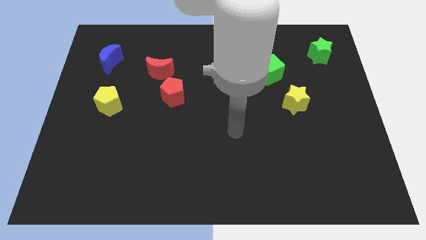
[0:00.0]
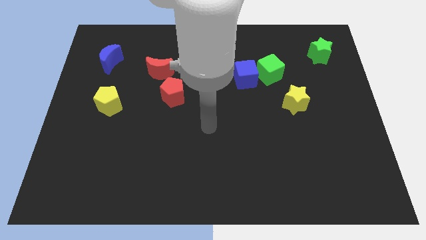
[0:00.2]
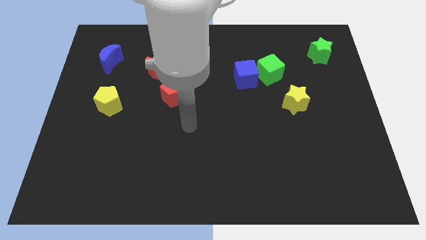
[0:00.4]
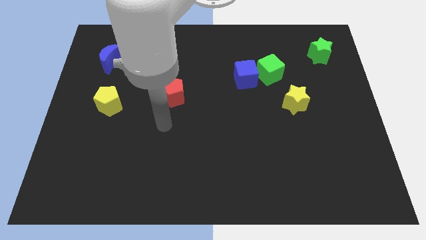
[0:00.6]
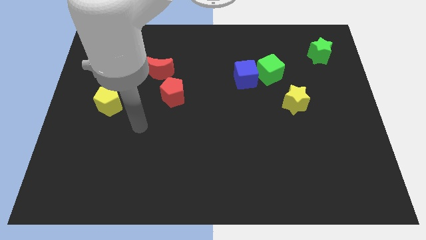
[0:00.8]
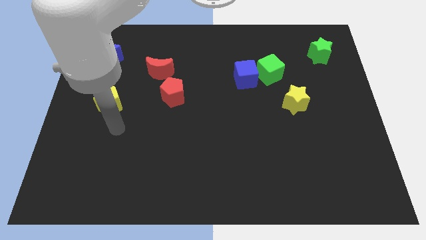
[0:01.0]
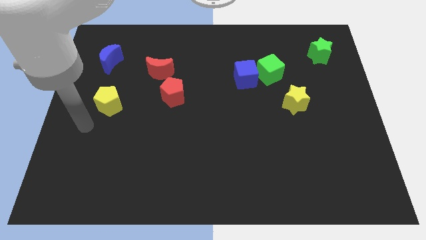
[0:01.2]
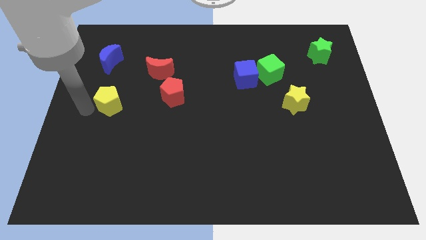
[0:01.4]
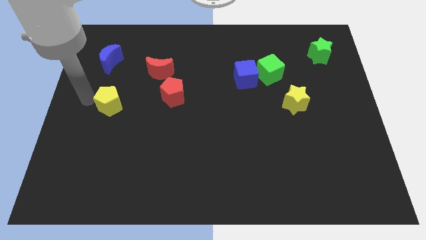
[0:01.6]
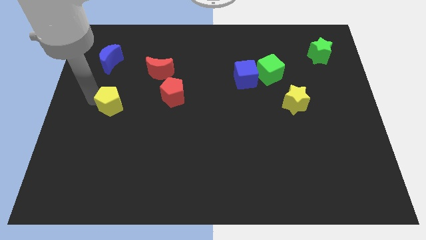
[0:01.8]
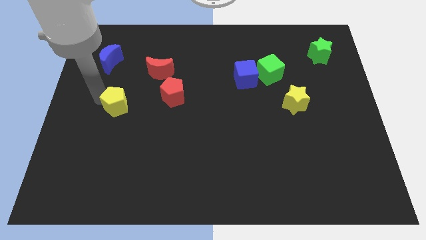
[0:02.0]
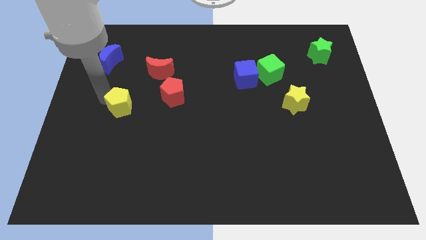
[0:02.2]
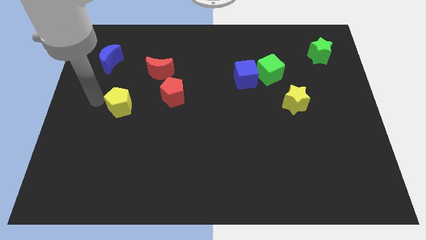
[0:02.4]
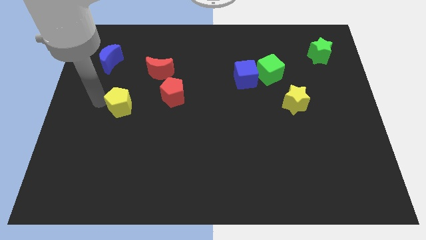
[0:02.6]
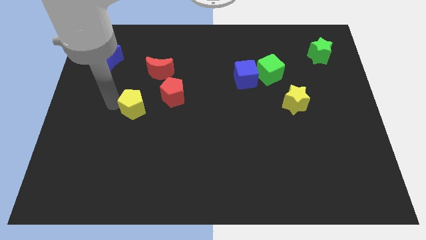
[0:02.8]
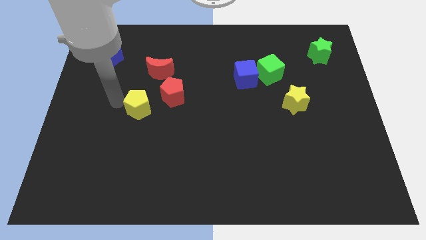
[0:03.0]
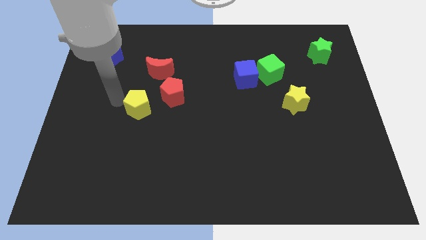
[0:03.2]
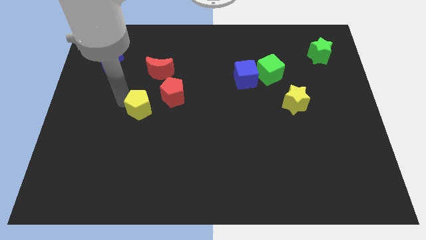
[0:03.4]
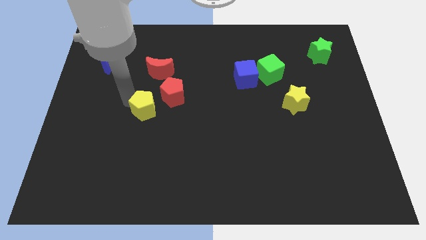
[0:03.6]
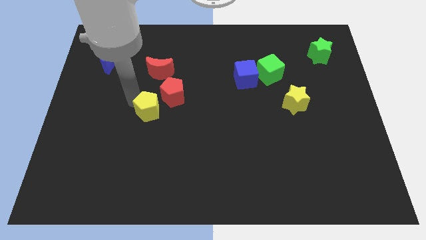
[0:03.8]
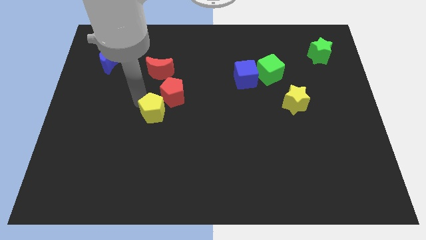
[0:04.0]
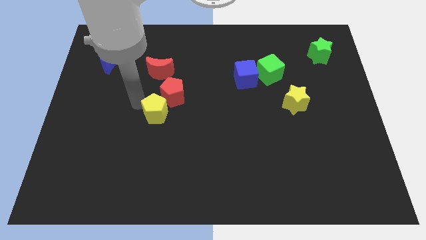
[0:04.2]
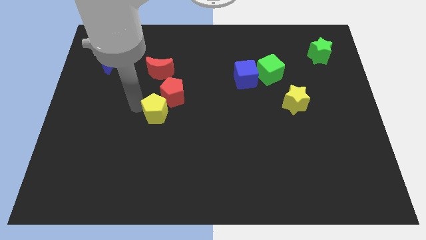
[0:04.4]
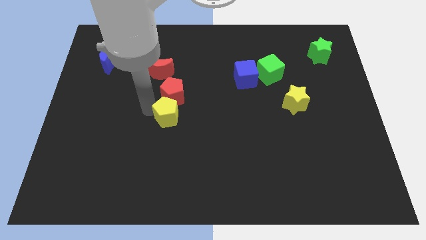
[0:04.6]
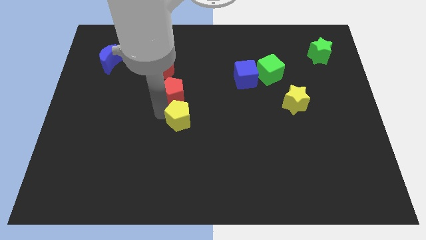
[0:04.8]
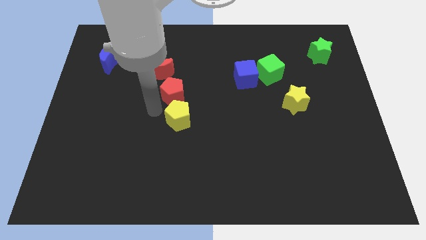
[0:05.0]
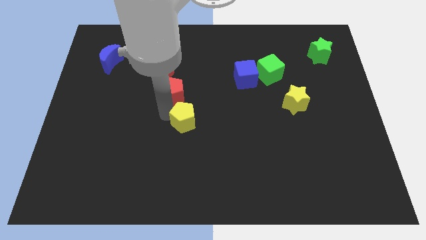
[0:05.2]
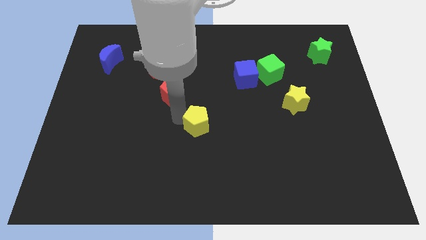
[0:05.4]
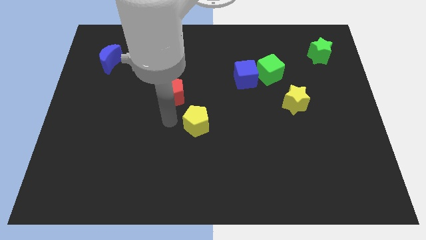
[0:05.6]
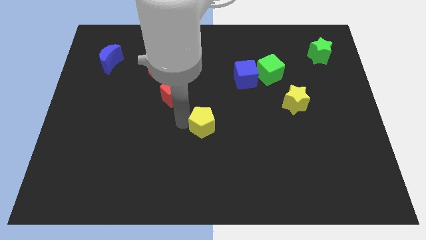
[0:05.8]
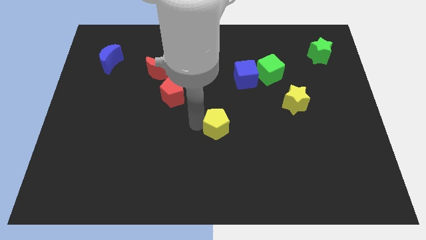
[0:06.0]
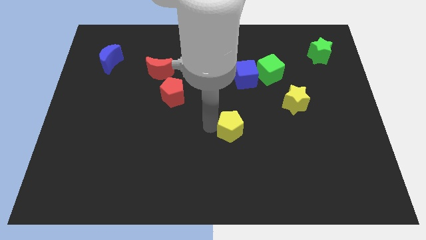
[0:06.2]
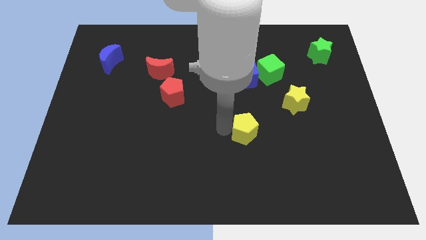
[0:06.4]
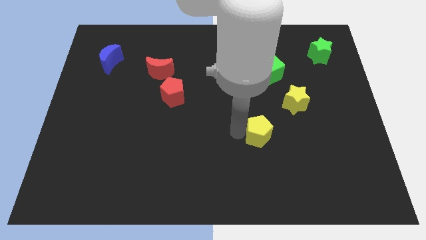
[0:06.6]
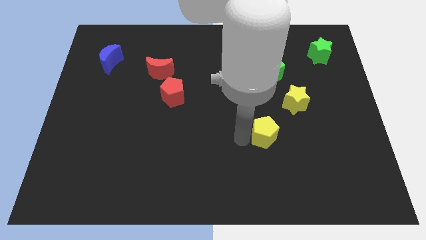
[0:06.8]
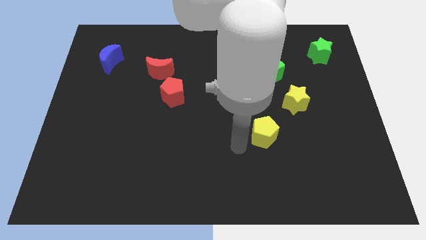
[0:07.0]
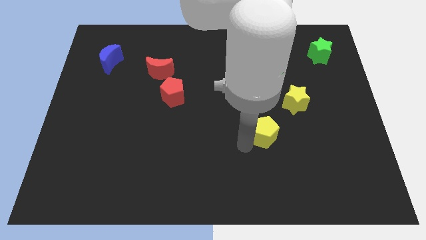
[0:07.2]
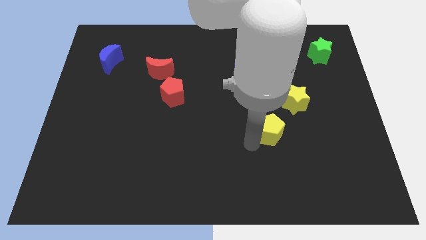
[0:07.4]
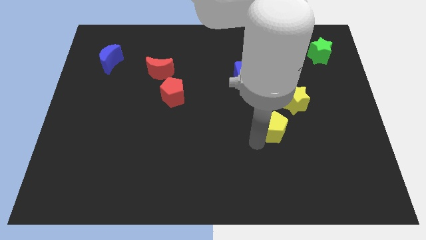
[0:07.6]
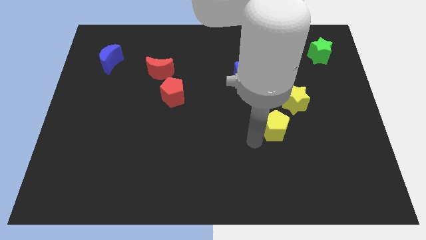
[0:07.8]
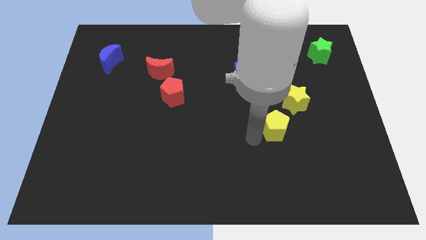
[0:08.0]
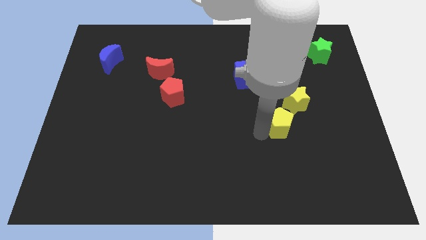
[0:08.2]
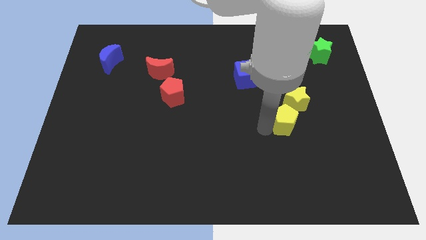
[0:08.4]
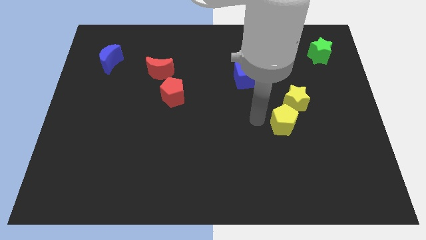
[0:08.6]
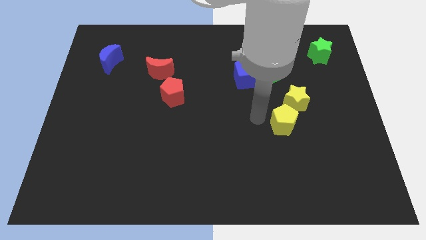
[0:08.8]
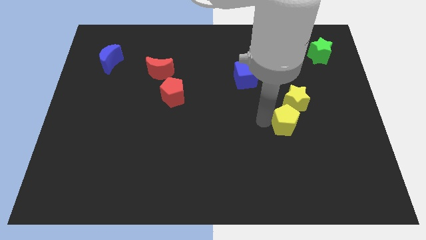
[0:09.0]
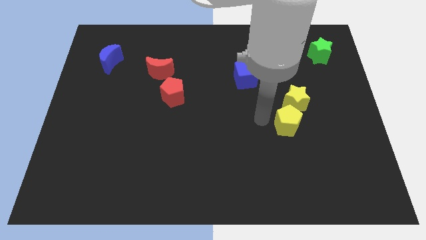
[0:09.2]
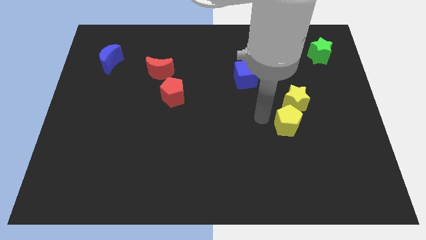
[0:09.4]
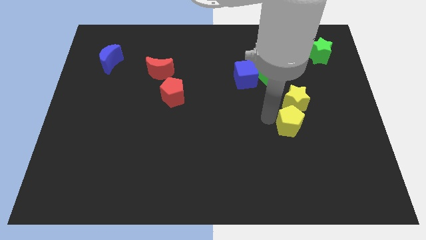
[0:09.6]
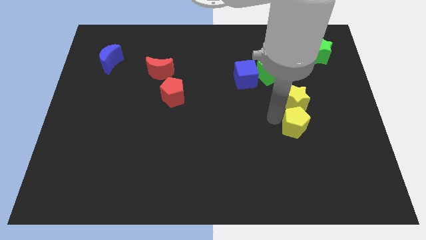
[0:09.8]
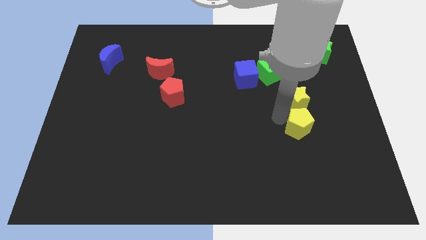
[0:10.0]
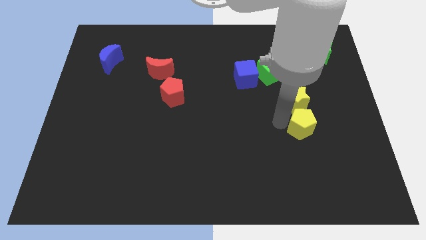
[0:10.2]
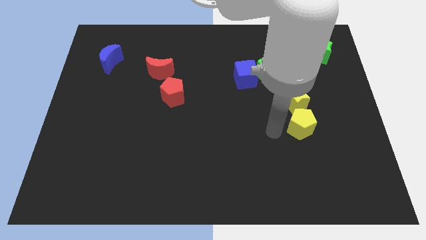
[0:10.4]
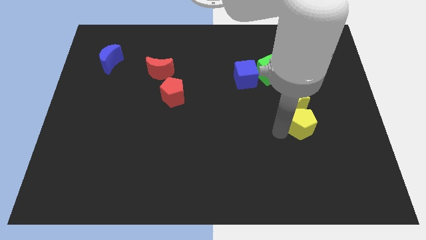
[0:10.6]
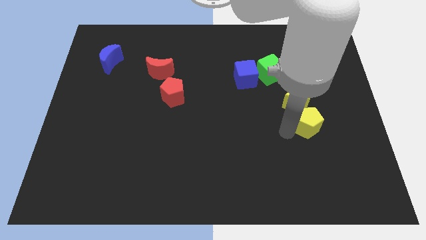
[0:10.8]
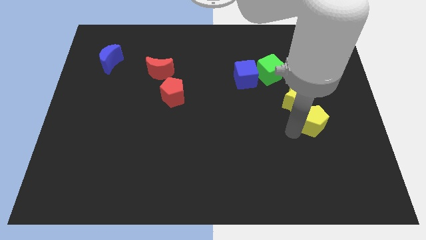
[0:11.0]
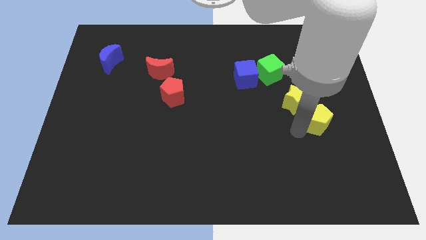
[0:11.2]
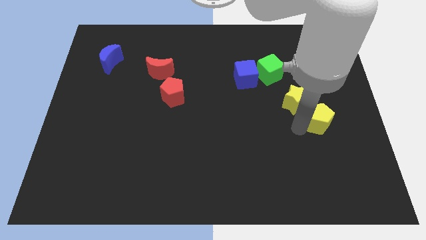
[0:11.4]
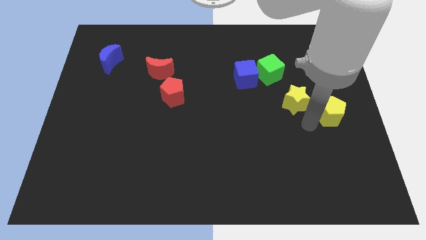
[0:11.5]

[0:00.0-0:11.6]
move the yellow pentagon to the right side of the board

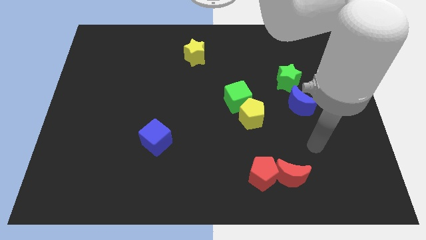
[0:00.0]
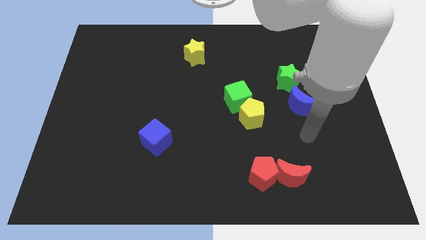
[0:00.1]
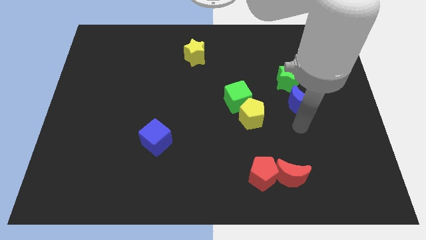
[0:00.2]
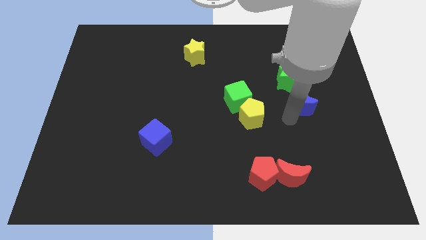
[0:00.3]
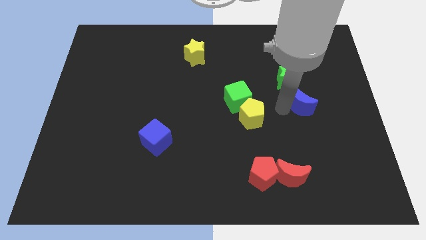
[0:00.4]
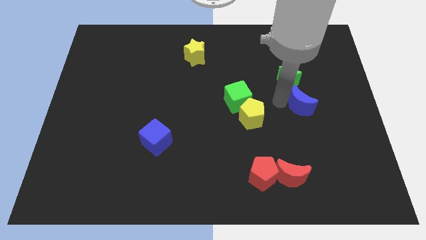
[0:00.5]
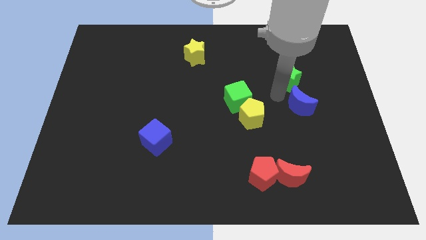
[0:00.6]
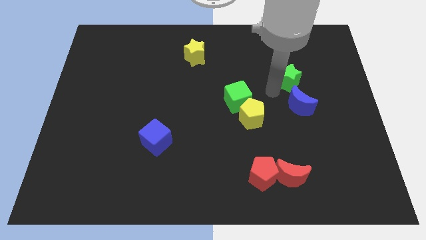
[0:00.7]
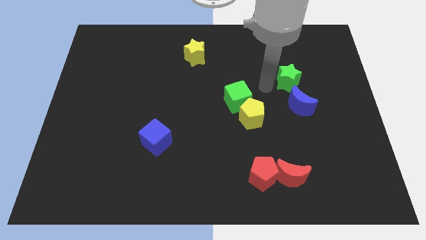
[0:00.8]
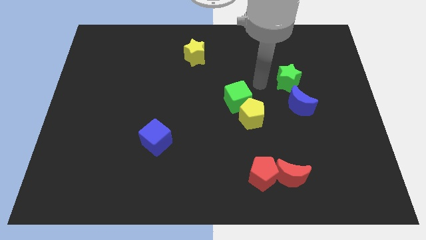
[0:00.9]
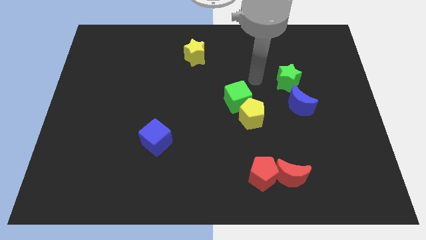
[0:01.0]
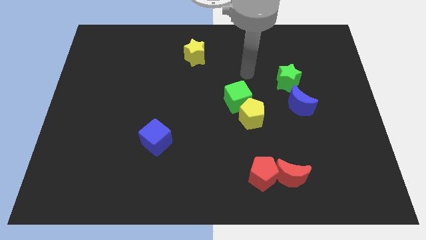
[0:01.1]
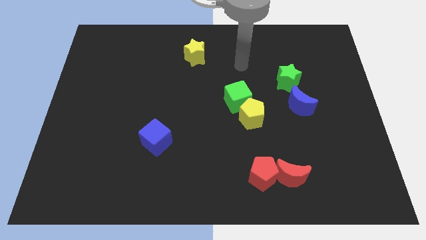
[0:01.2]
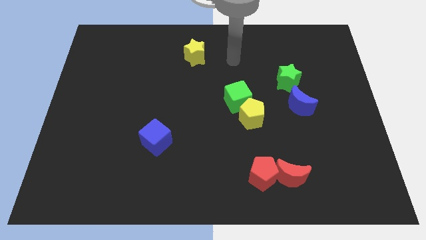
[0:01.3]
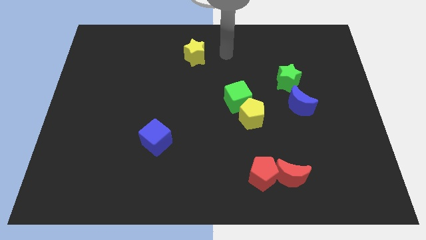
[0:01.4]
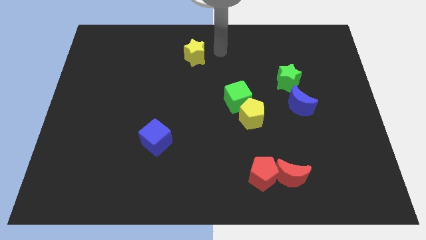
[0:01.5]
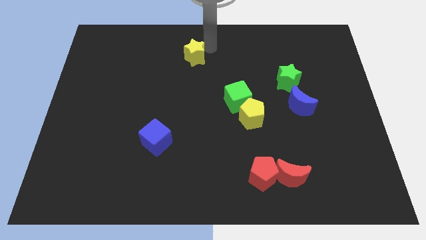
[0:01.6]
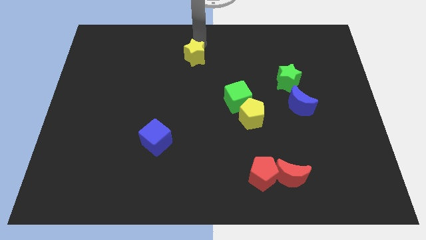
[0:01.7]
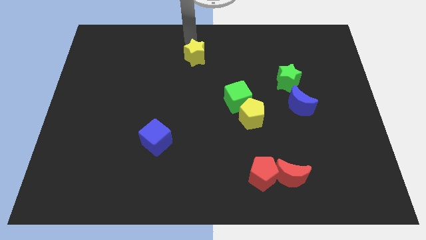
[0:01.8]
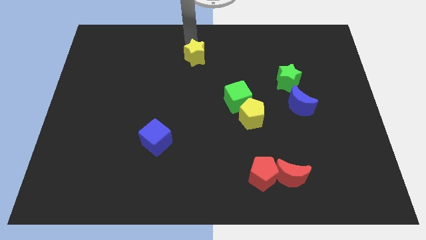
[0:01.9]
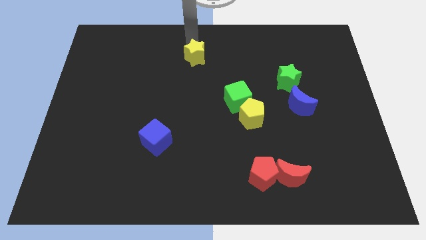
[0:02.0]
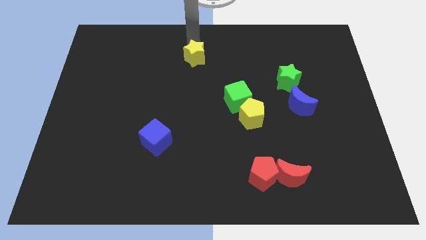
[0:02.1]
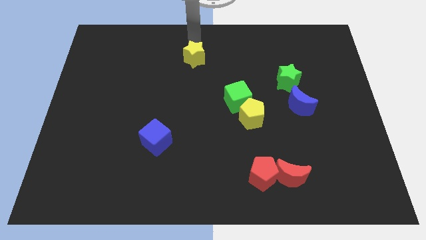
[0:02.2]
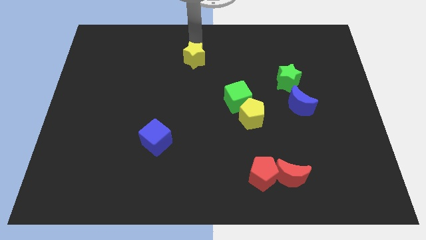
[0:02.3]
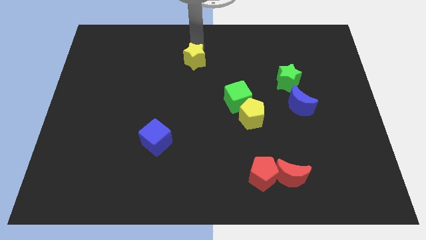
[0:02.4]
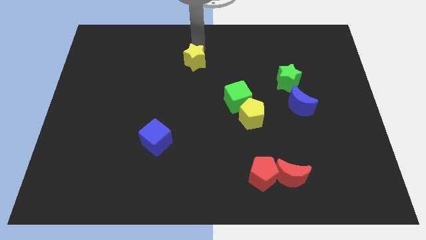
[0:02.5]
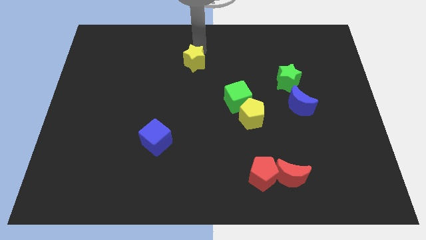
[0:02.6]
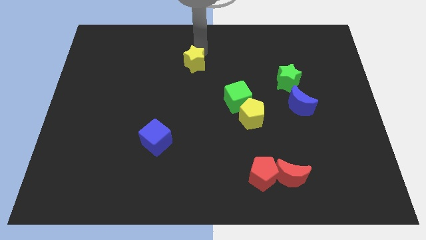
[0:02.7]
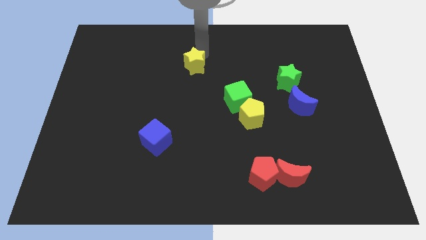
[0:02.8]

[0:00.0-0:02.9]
push the yellow star to the center of the board
